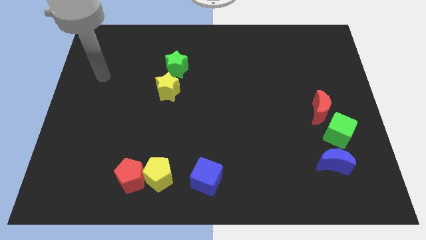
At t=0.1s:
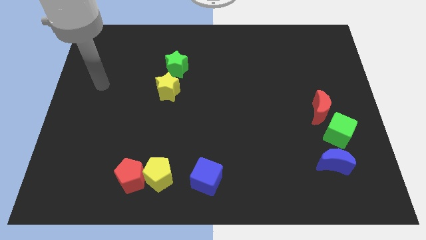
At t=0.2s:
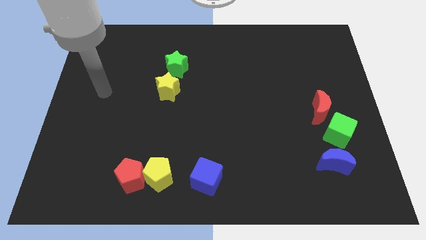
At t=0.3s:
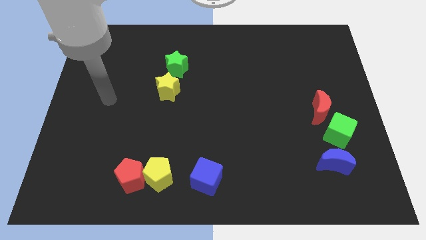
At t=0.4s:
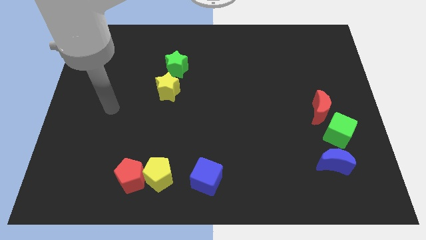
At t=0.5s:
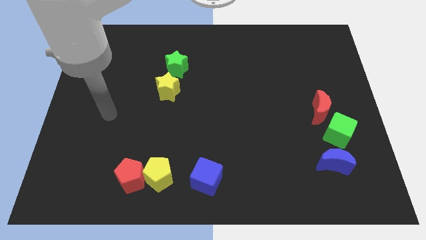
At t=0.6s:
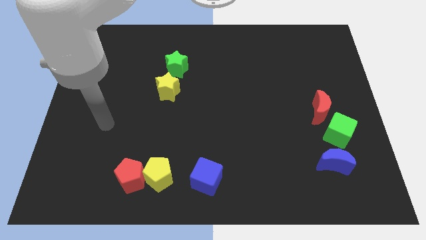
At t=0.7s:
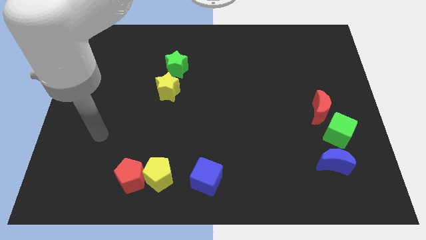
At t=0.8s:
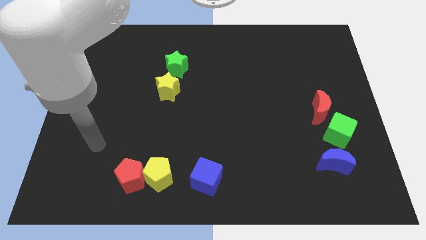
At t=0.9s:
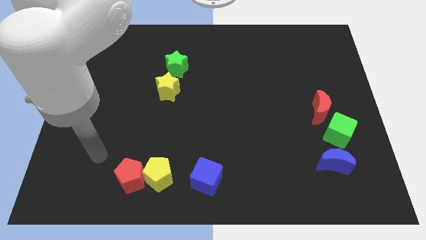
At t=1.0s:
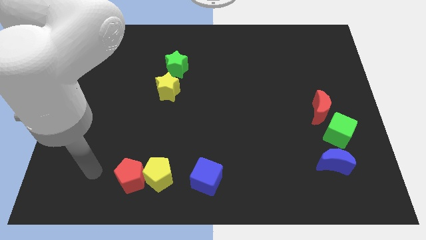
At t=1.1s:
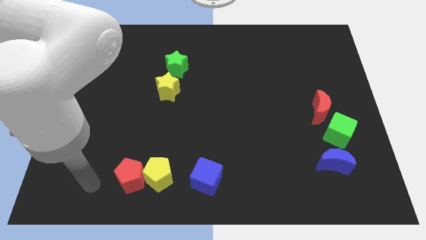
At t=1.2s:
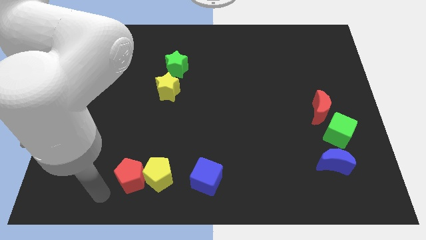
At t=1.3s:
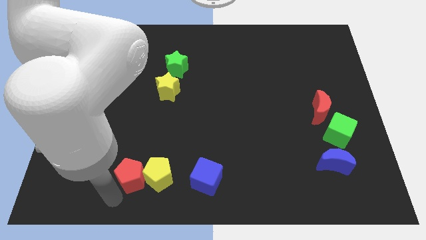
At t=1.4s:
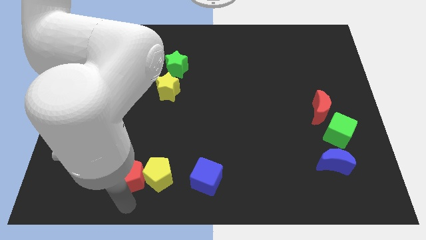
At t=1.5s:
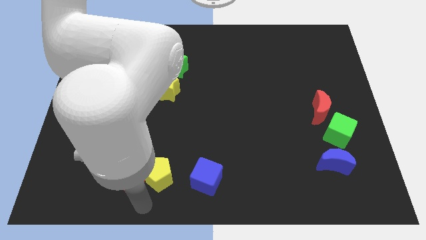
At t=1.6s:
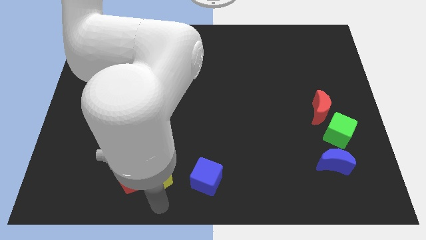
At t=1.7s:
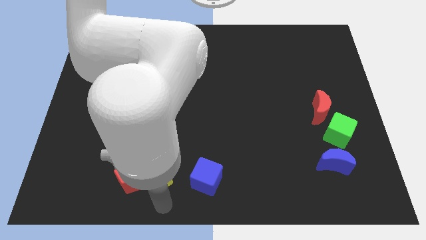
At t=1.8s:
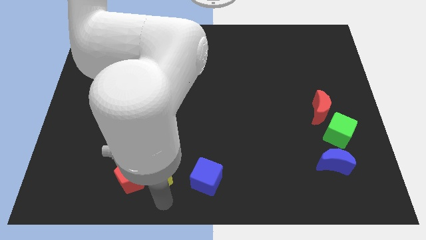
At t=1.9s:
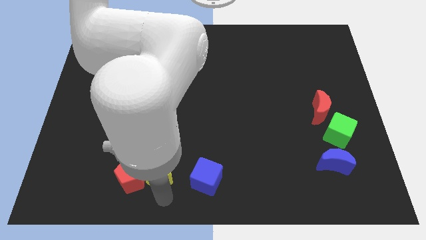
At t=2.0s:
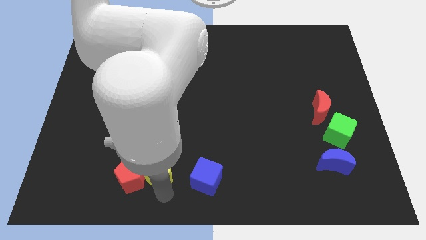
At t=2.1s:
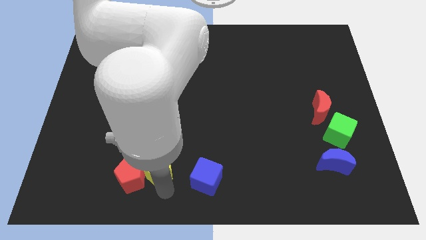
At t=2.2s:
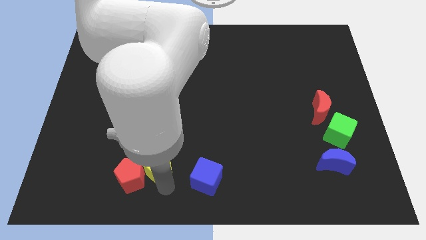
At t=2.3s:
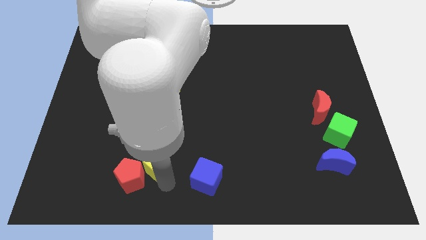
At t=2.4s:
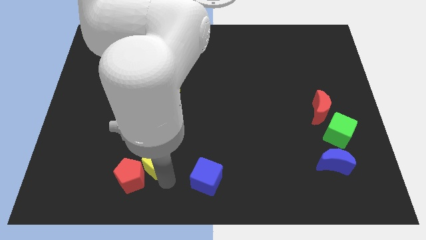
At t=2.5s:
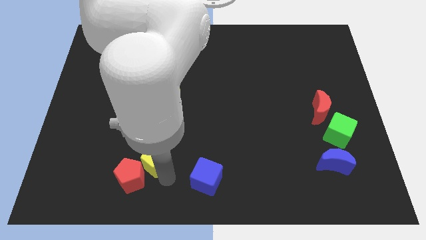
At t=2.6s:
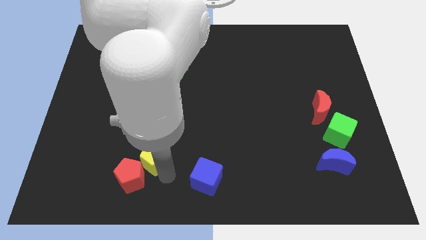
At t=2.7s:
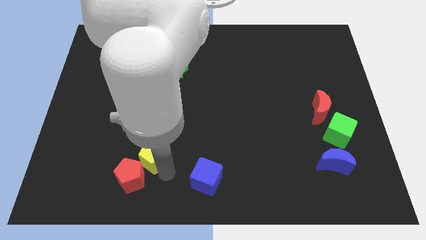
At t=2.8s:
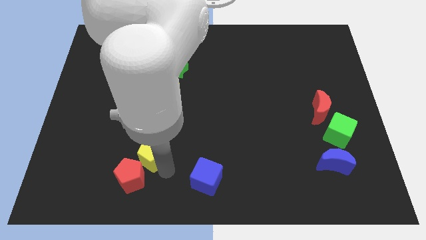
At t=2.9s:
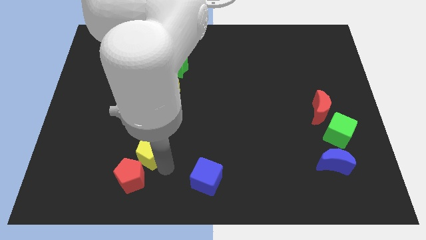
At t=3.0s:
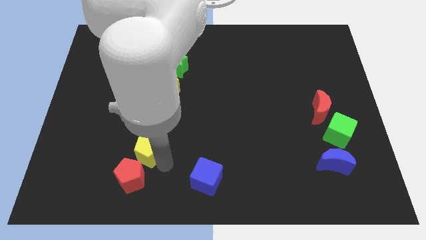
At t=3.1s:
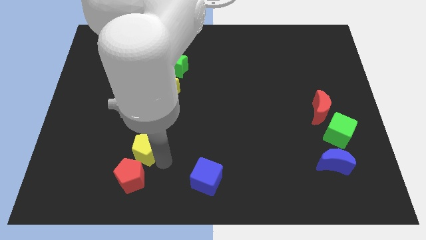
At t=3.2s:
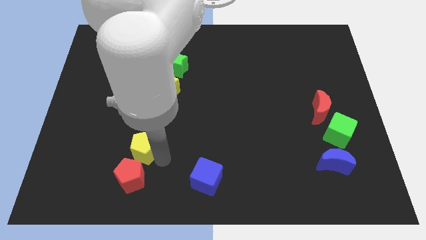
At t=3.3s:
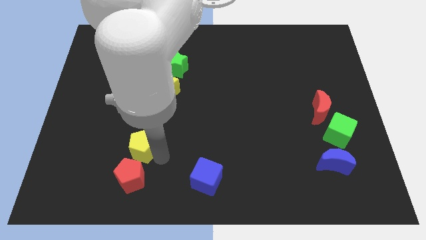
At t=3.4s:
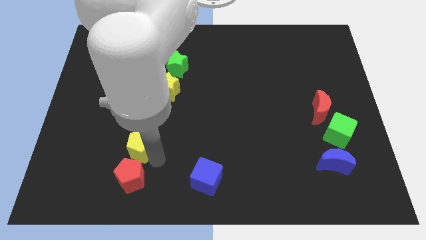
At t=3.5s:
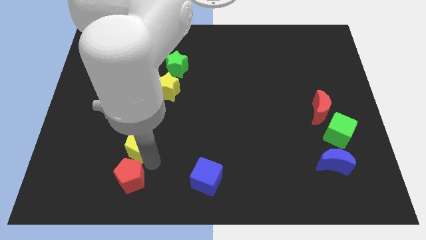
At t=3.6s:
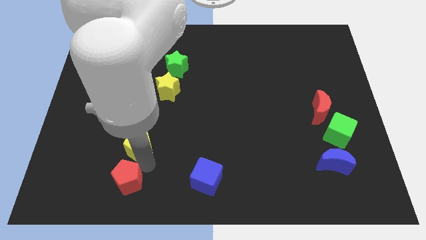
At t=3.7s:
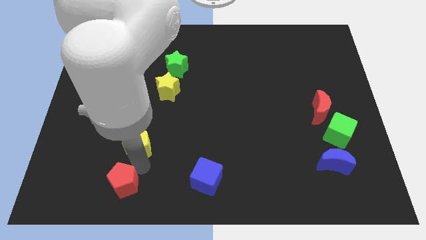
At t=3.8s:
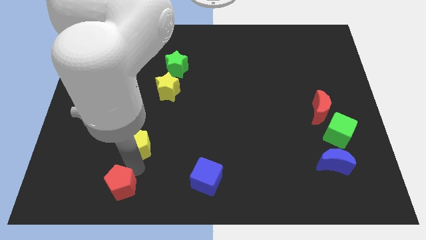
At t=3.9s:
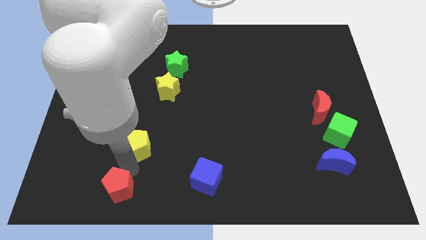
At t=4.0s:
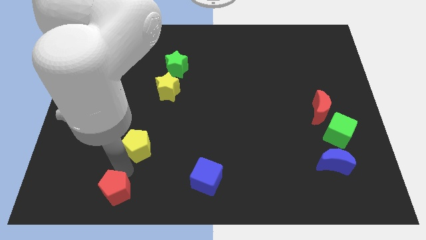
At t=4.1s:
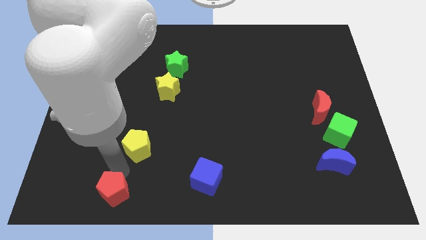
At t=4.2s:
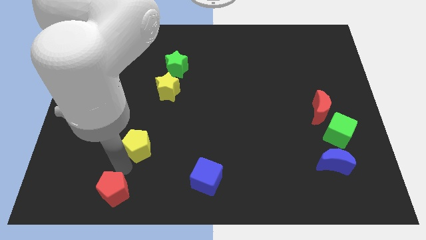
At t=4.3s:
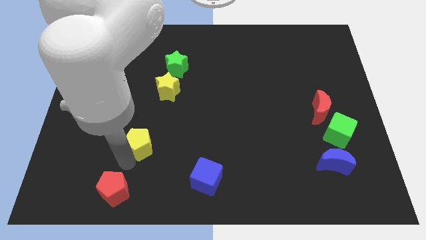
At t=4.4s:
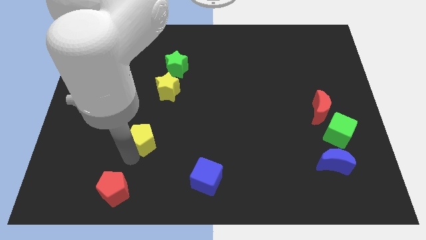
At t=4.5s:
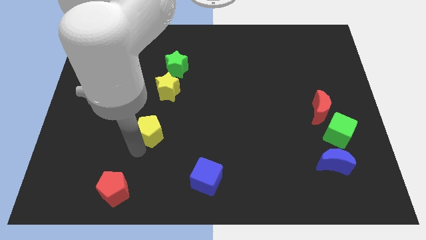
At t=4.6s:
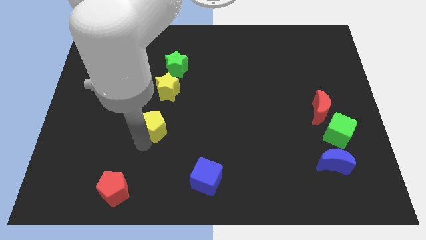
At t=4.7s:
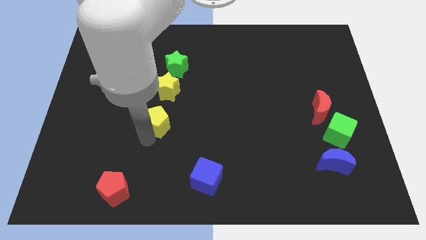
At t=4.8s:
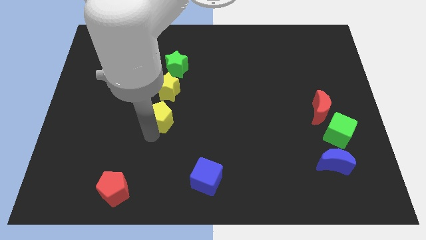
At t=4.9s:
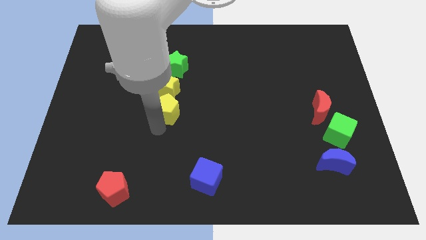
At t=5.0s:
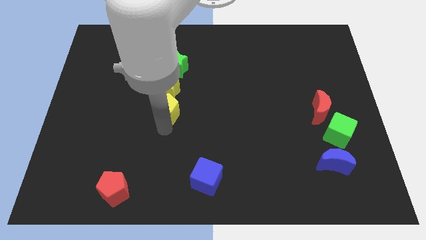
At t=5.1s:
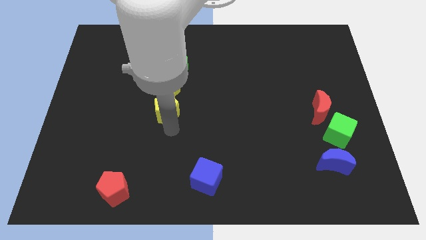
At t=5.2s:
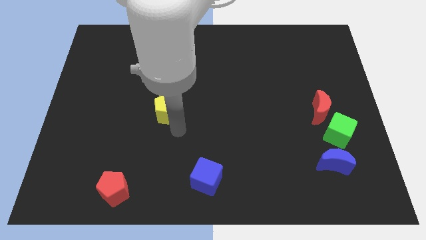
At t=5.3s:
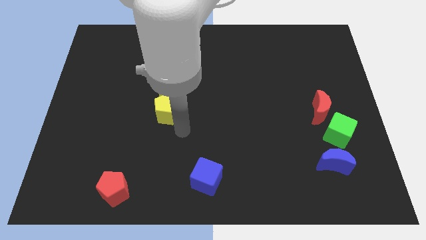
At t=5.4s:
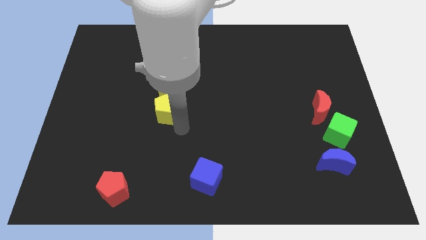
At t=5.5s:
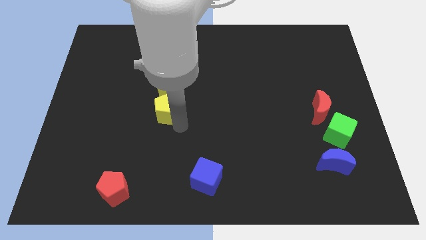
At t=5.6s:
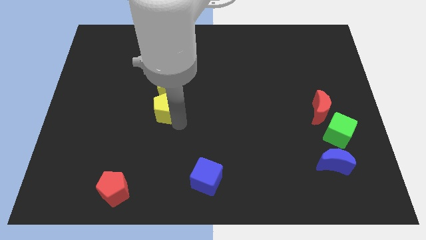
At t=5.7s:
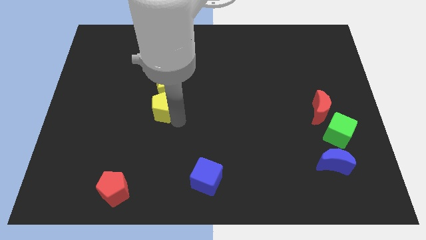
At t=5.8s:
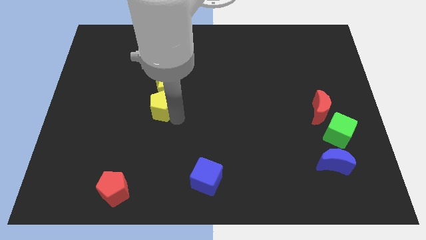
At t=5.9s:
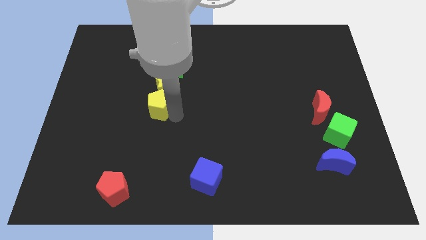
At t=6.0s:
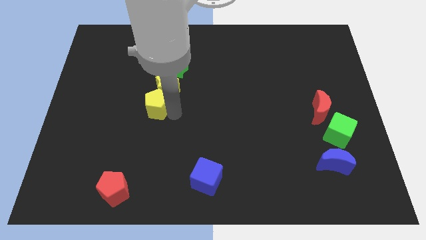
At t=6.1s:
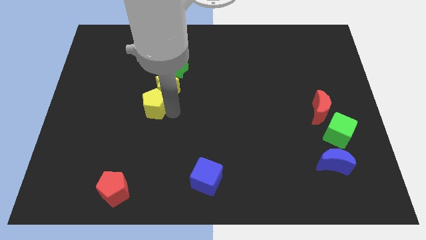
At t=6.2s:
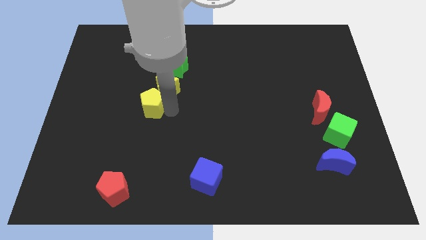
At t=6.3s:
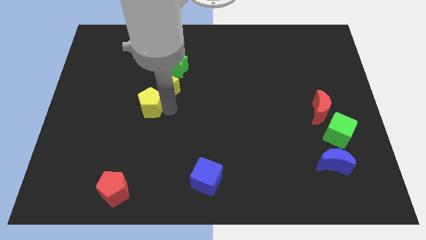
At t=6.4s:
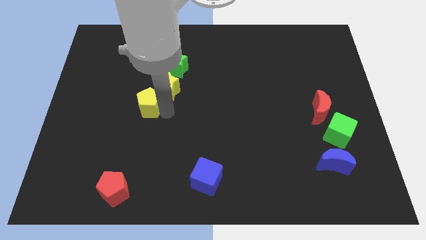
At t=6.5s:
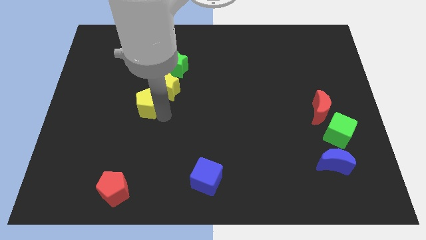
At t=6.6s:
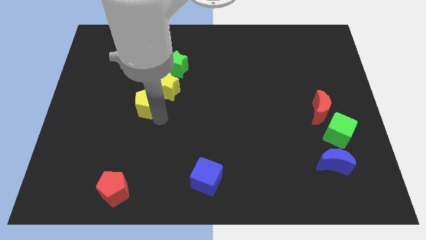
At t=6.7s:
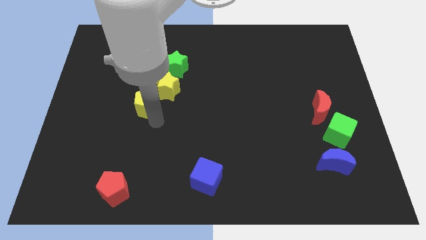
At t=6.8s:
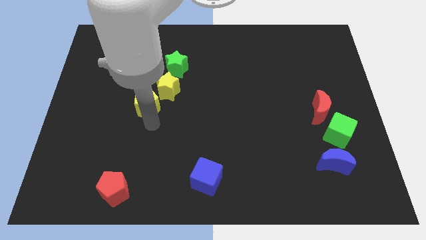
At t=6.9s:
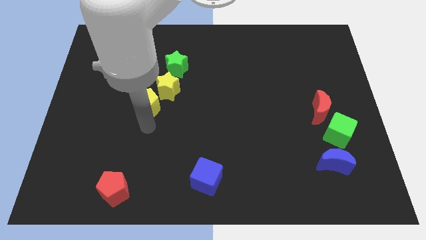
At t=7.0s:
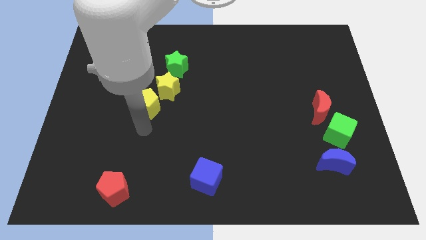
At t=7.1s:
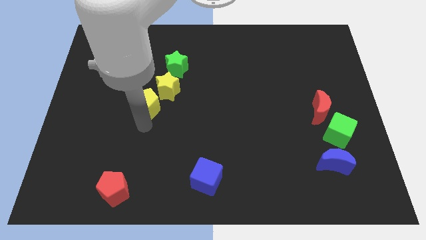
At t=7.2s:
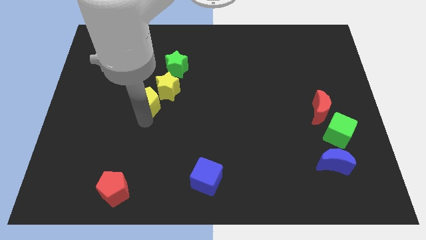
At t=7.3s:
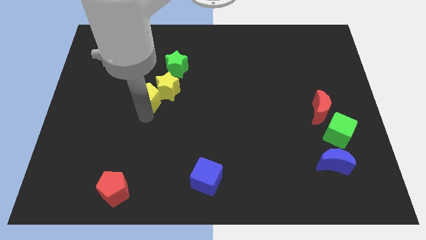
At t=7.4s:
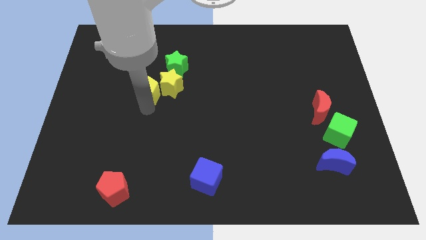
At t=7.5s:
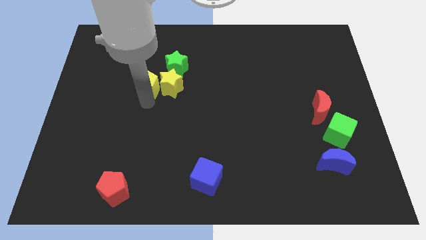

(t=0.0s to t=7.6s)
push the yellow pentagon to the top left side of the yellow star
